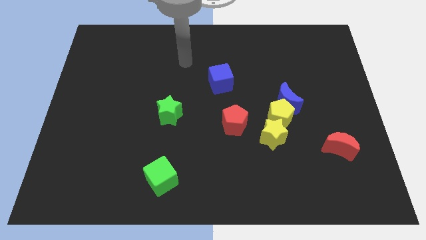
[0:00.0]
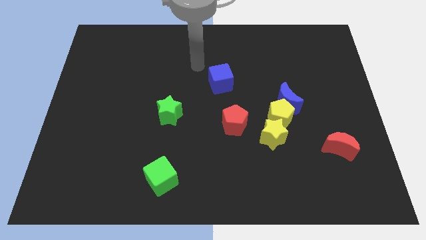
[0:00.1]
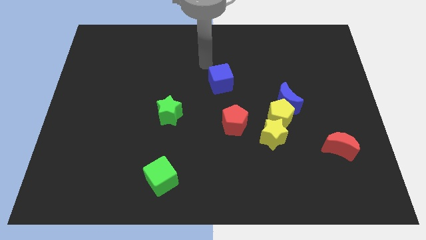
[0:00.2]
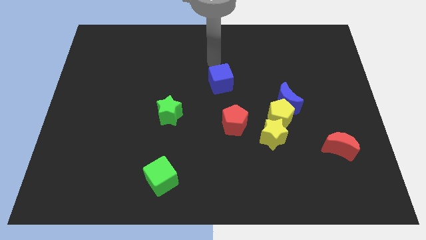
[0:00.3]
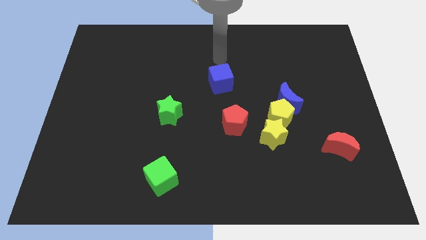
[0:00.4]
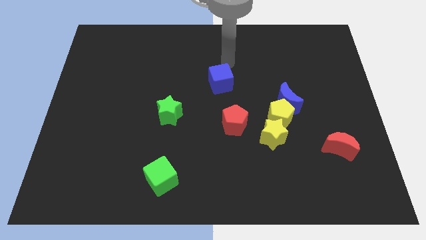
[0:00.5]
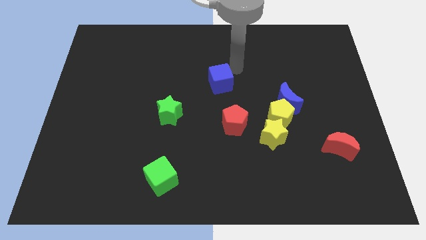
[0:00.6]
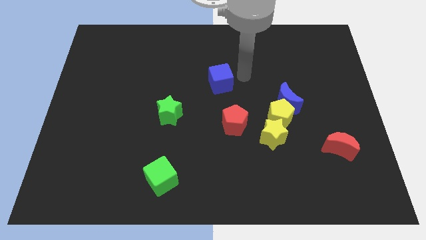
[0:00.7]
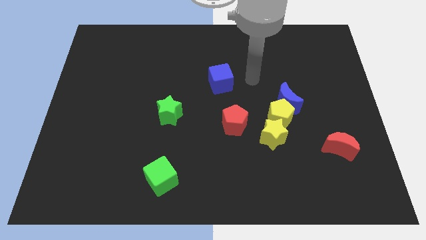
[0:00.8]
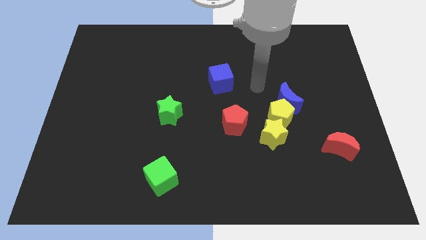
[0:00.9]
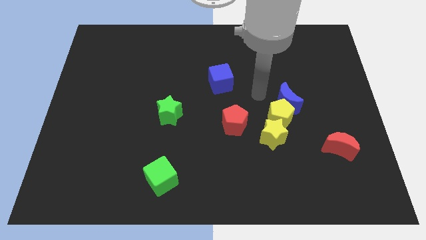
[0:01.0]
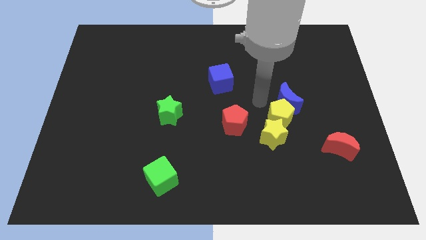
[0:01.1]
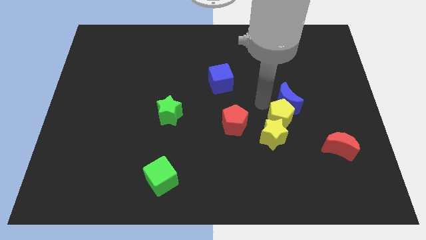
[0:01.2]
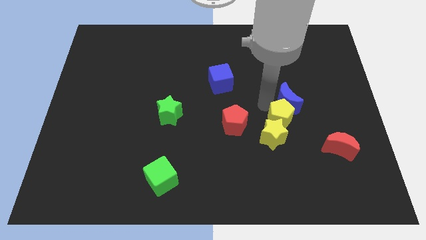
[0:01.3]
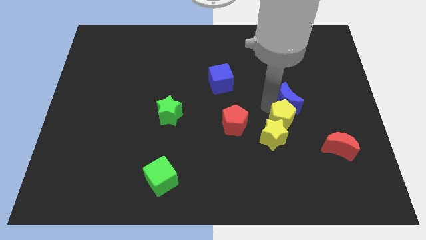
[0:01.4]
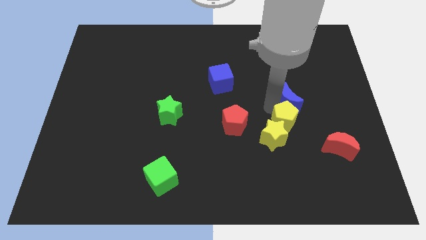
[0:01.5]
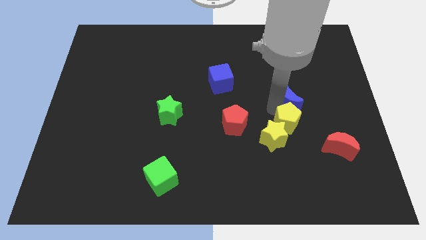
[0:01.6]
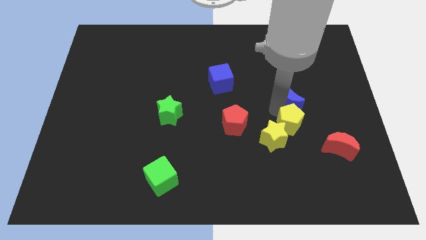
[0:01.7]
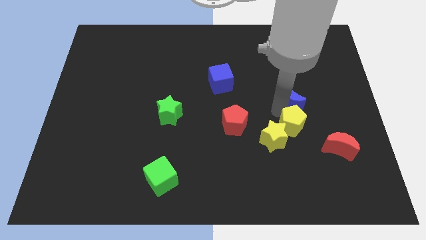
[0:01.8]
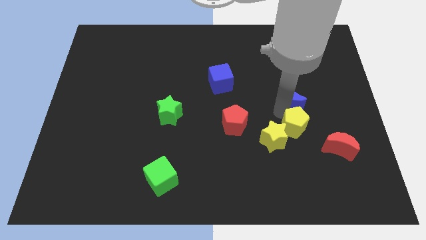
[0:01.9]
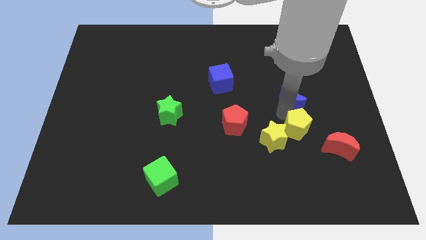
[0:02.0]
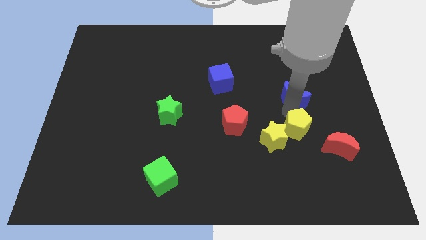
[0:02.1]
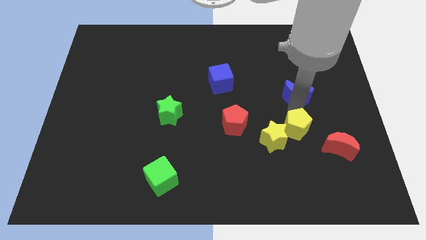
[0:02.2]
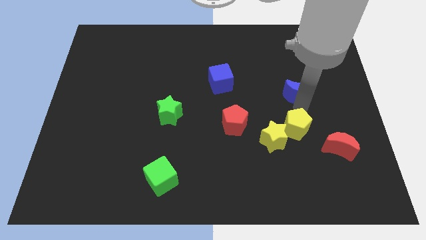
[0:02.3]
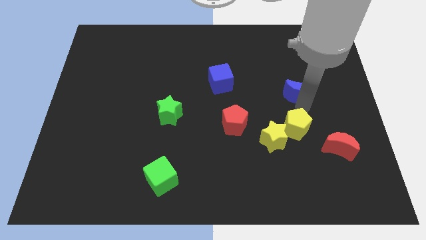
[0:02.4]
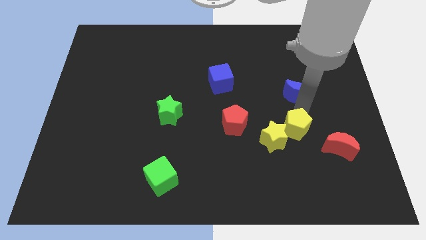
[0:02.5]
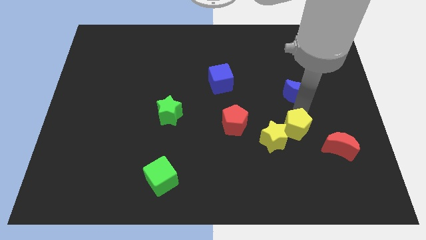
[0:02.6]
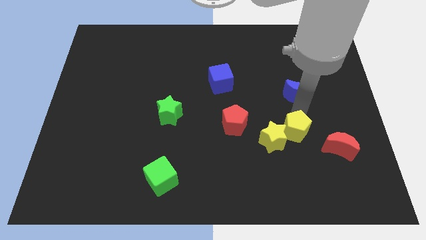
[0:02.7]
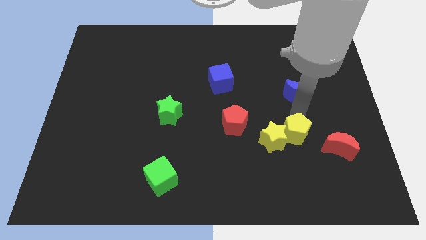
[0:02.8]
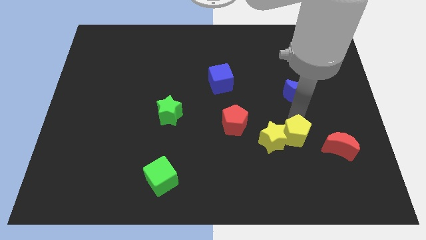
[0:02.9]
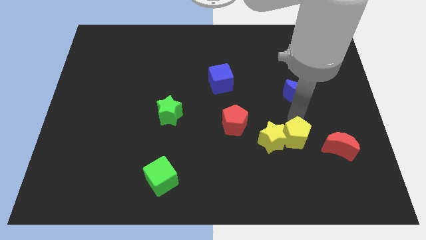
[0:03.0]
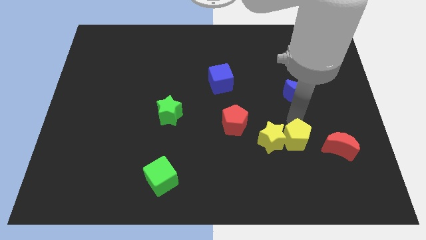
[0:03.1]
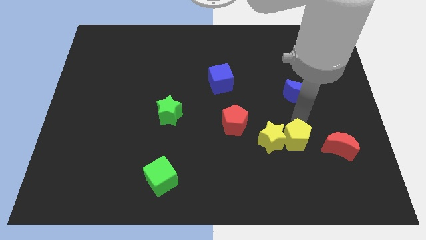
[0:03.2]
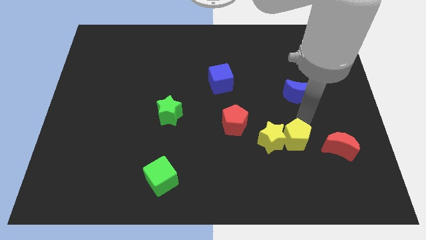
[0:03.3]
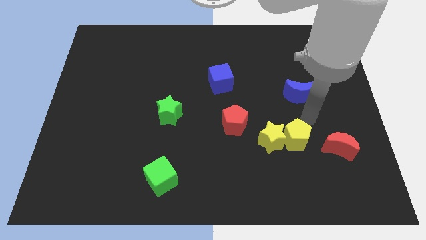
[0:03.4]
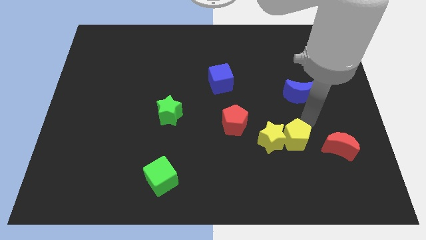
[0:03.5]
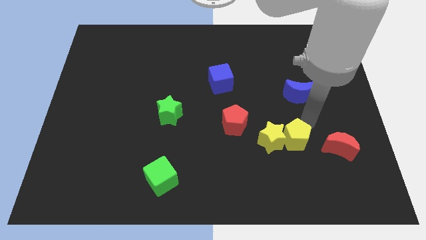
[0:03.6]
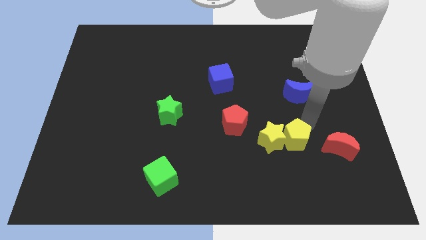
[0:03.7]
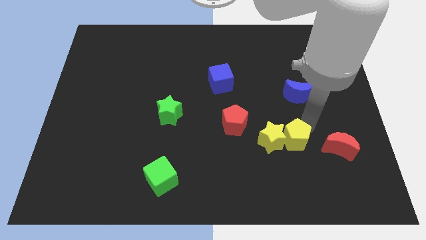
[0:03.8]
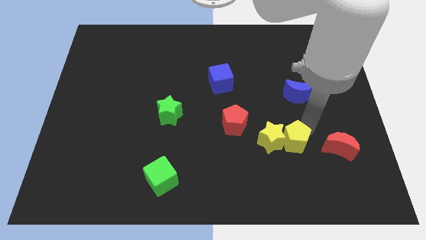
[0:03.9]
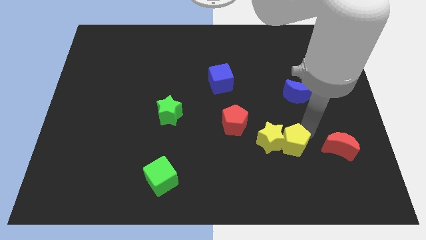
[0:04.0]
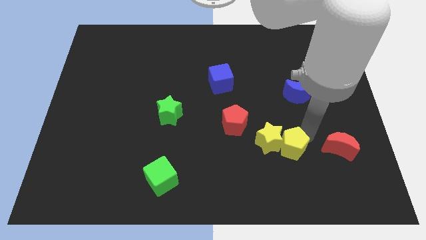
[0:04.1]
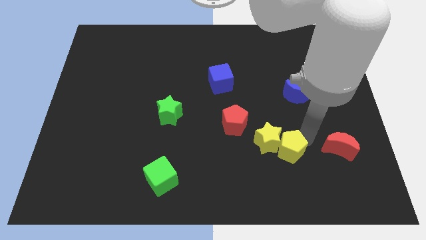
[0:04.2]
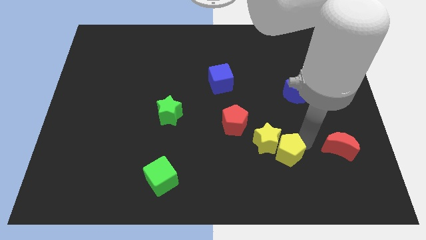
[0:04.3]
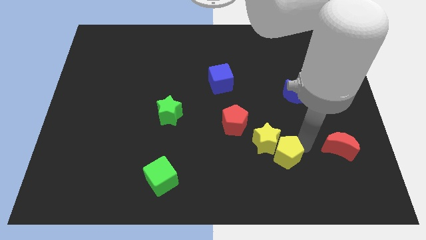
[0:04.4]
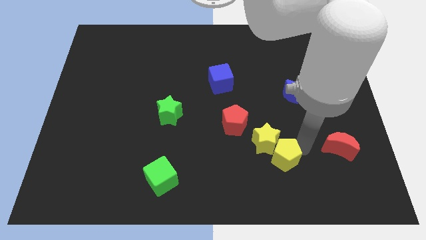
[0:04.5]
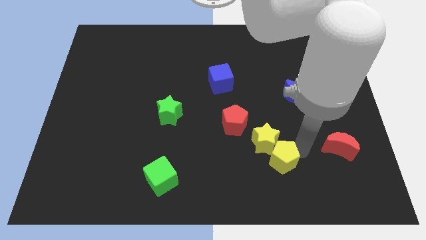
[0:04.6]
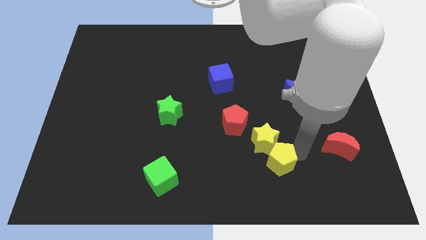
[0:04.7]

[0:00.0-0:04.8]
push the yellow pentagon slightly diagonally downwards and left

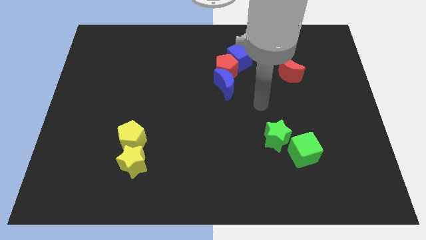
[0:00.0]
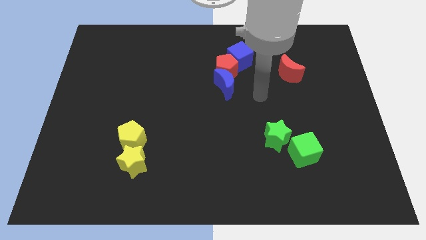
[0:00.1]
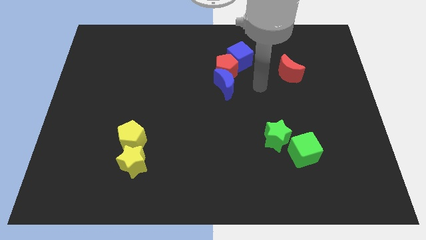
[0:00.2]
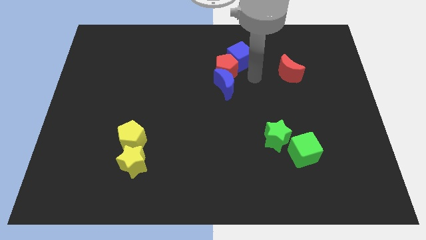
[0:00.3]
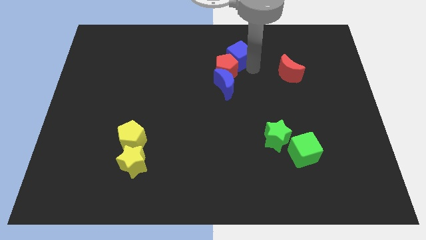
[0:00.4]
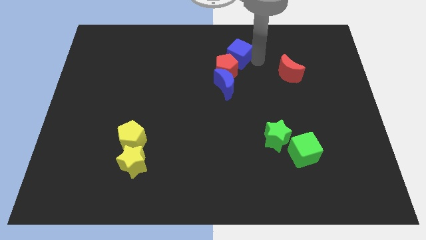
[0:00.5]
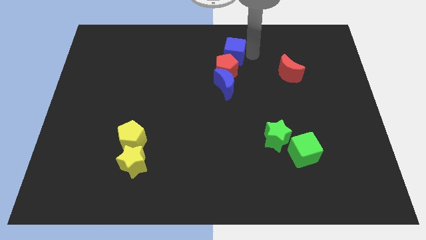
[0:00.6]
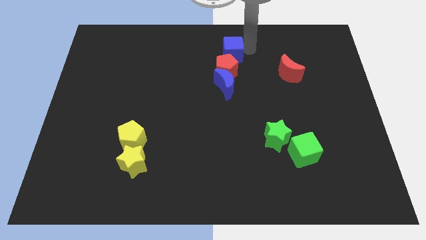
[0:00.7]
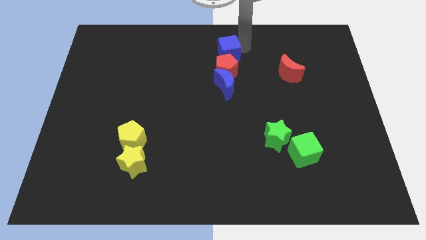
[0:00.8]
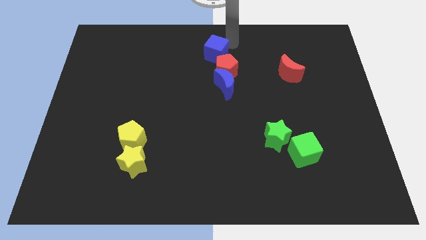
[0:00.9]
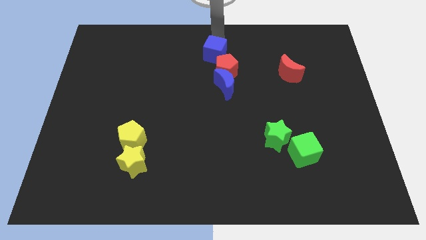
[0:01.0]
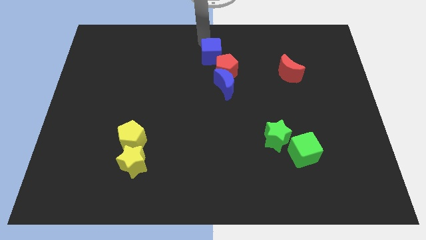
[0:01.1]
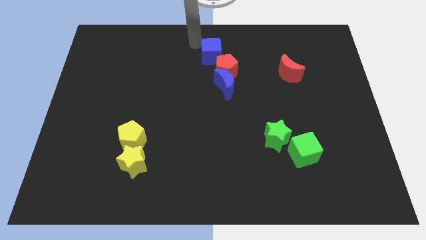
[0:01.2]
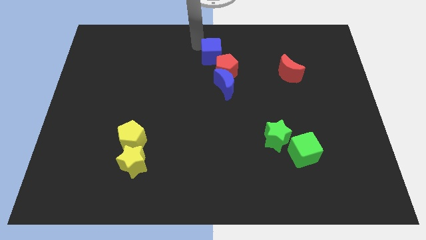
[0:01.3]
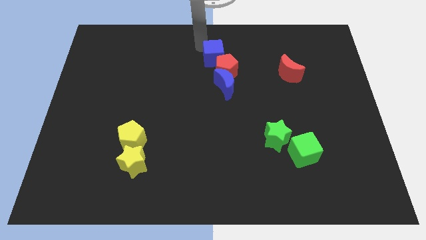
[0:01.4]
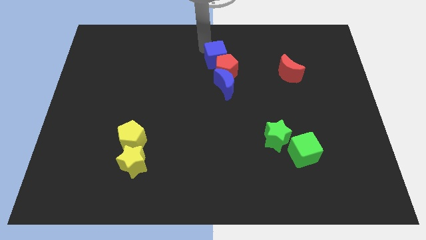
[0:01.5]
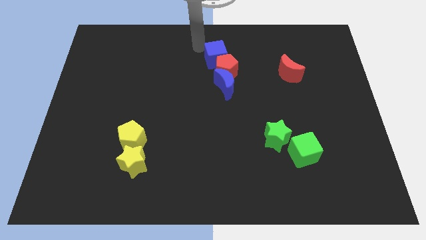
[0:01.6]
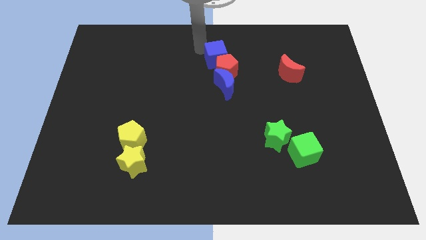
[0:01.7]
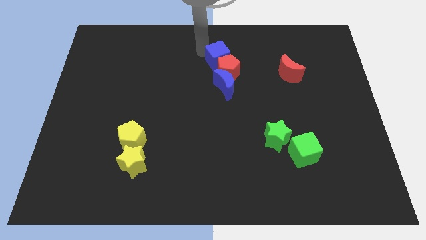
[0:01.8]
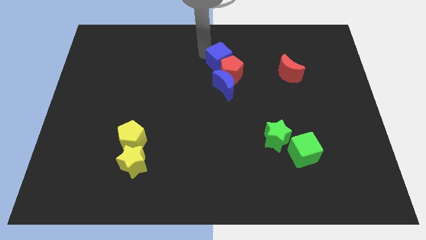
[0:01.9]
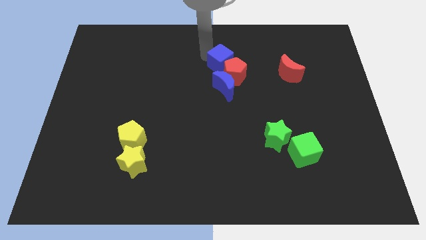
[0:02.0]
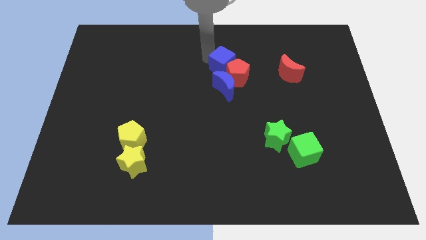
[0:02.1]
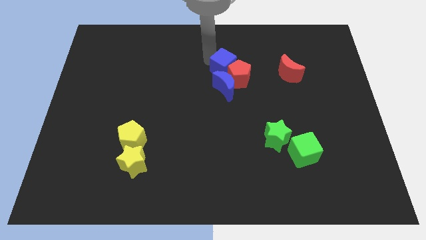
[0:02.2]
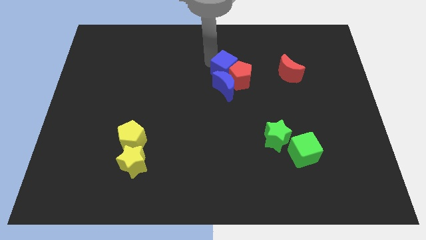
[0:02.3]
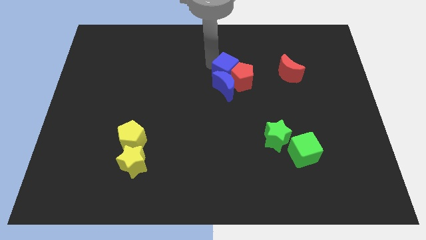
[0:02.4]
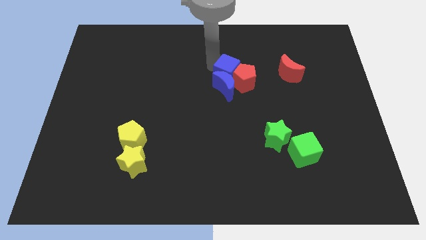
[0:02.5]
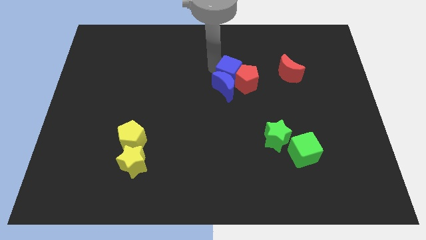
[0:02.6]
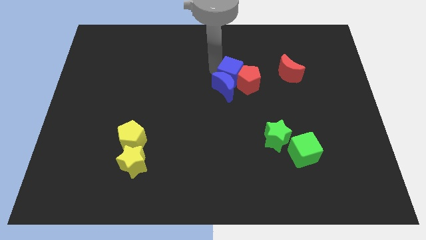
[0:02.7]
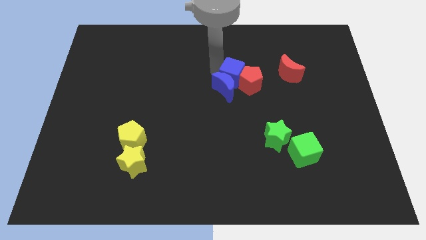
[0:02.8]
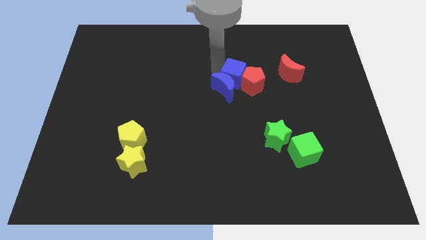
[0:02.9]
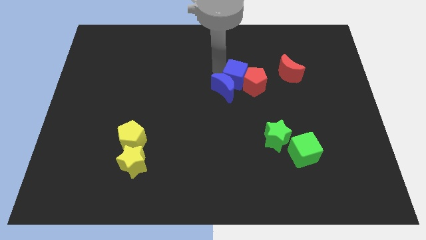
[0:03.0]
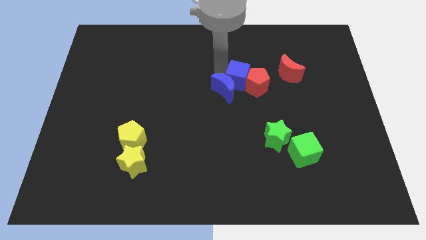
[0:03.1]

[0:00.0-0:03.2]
push the blue cube a little bit downwards

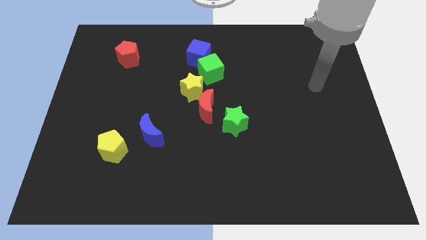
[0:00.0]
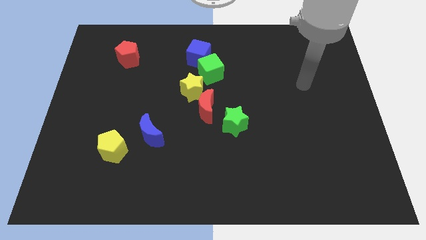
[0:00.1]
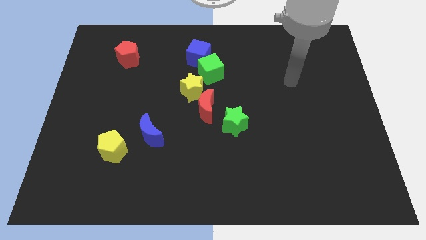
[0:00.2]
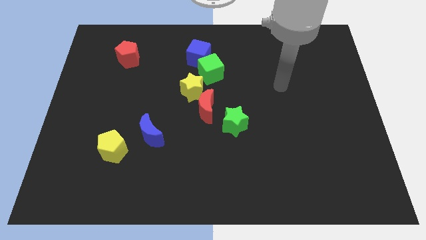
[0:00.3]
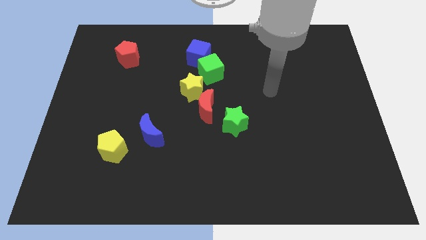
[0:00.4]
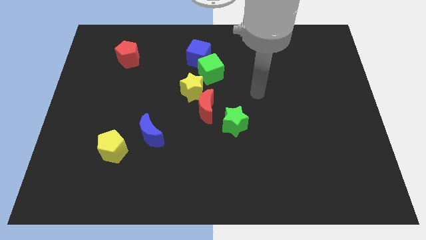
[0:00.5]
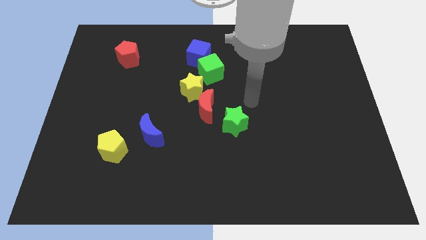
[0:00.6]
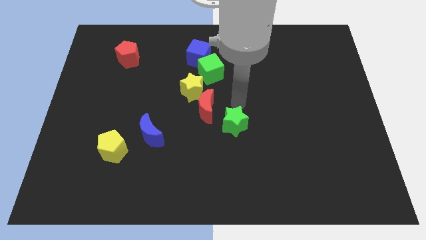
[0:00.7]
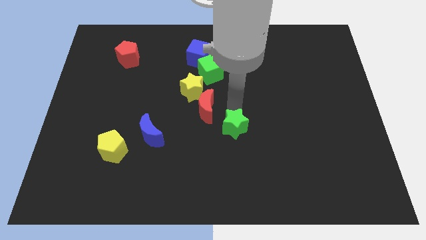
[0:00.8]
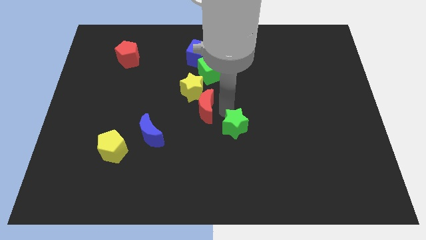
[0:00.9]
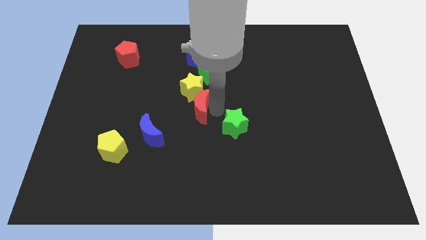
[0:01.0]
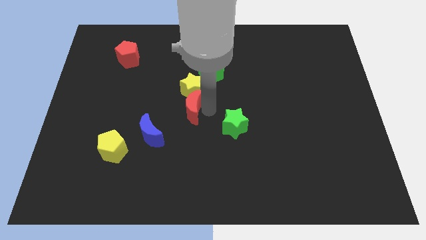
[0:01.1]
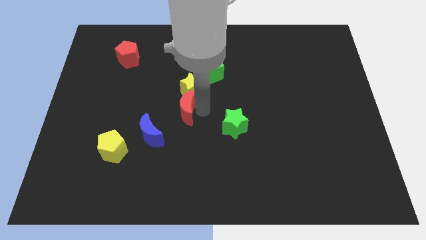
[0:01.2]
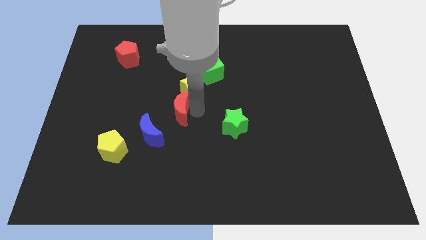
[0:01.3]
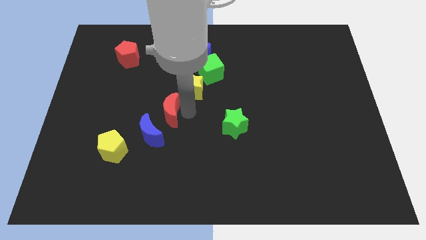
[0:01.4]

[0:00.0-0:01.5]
push the red moon left a little
